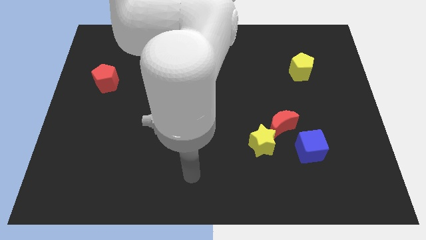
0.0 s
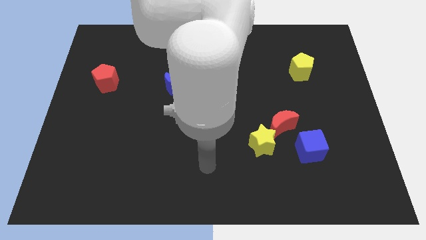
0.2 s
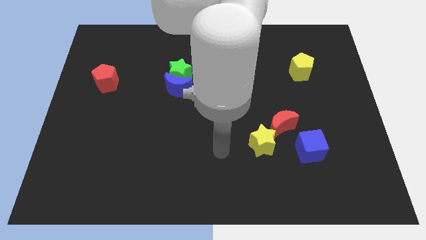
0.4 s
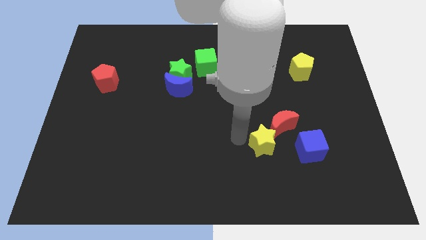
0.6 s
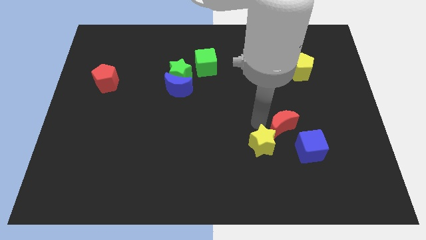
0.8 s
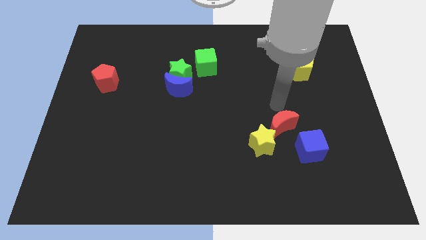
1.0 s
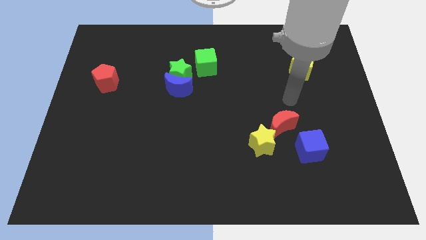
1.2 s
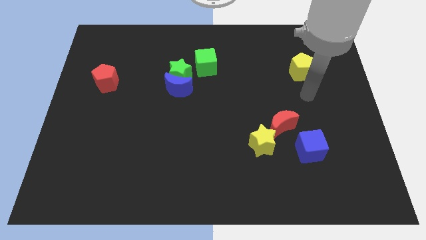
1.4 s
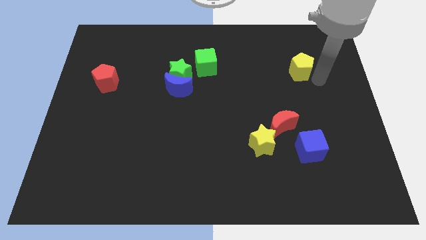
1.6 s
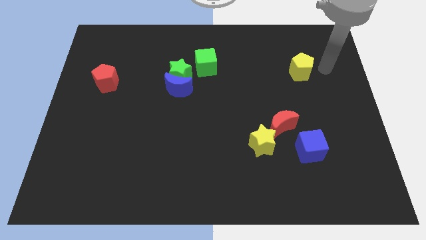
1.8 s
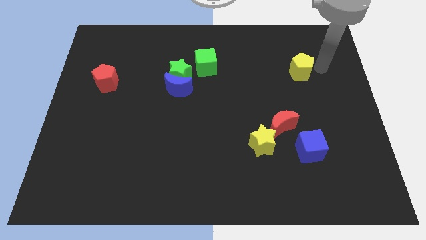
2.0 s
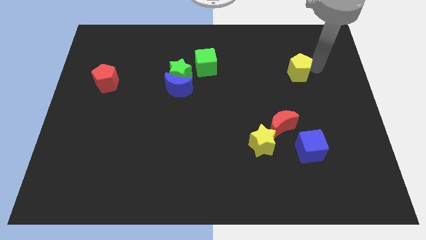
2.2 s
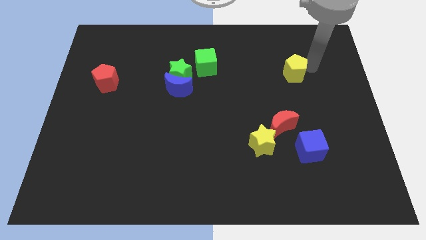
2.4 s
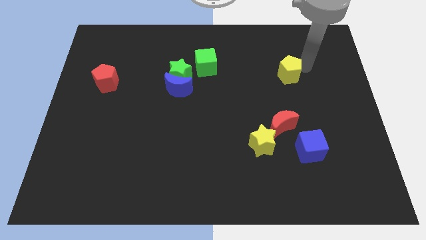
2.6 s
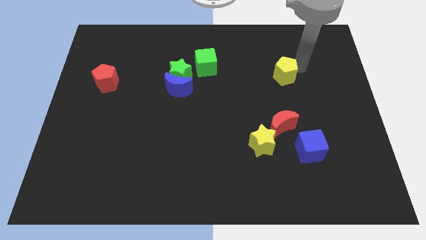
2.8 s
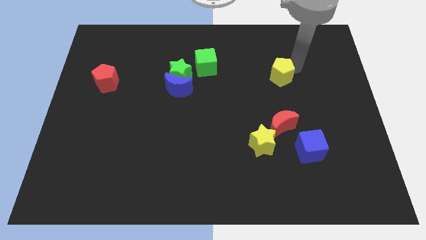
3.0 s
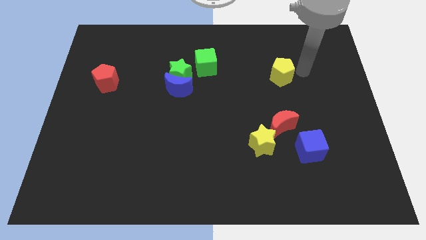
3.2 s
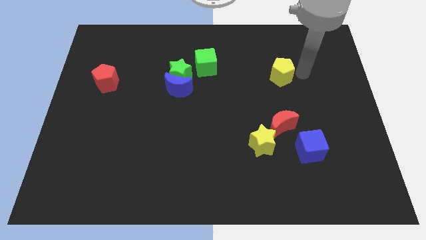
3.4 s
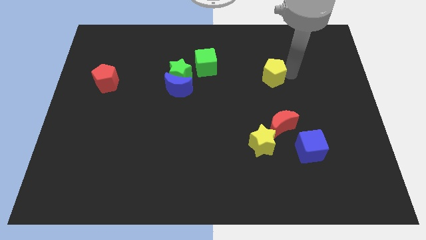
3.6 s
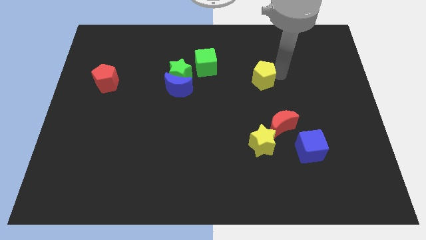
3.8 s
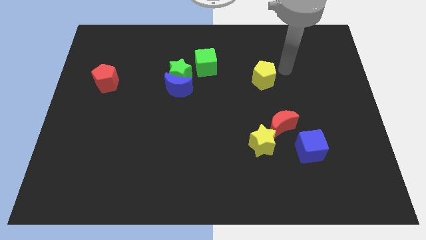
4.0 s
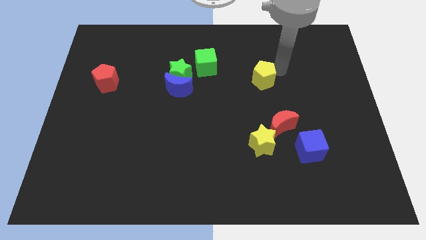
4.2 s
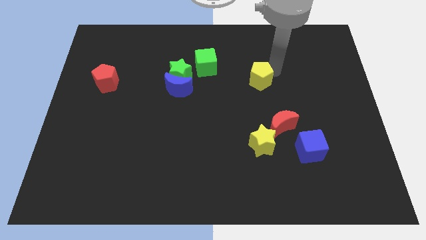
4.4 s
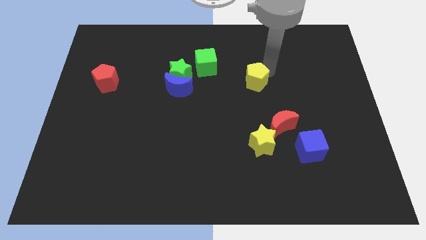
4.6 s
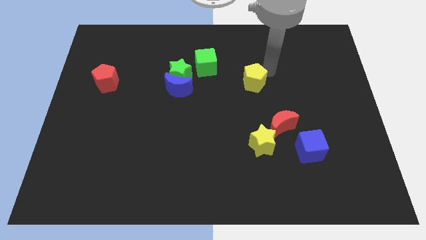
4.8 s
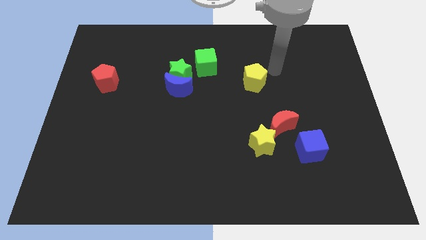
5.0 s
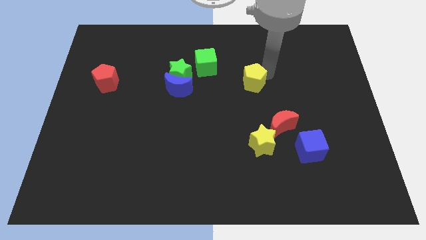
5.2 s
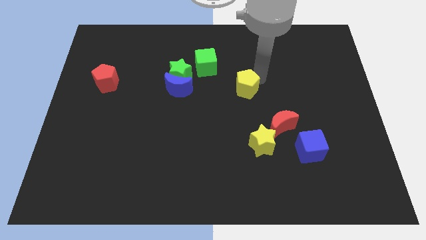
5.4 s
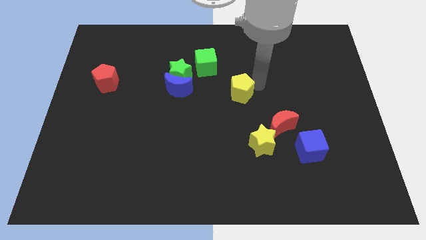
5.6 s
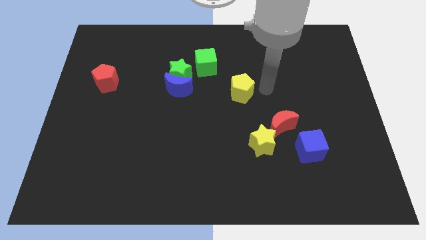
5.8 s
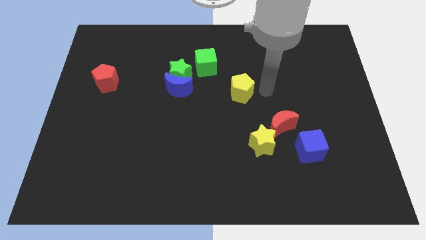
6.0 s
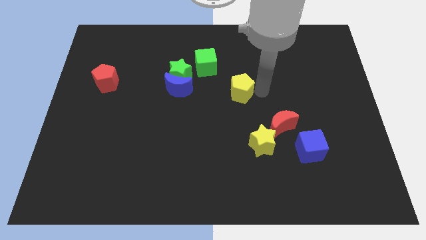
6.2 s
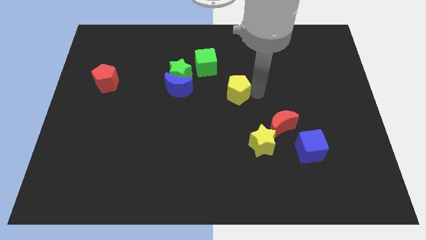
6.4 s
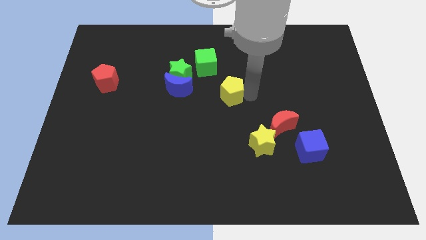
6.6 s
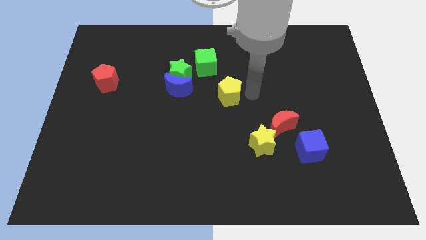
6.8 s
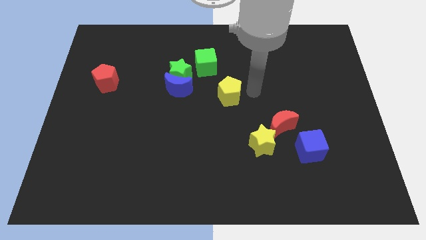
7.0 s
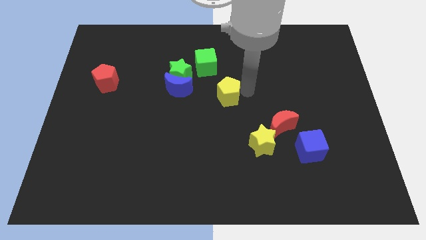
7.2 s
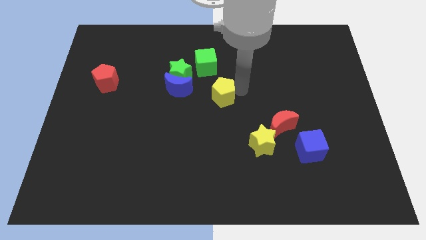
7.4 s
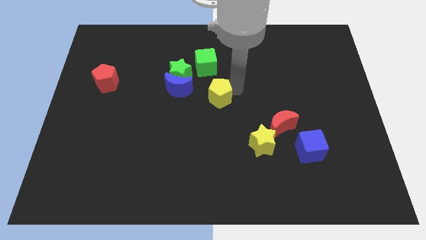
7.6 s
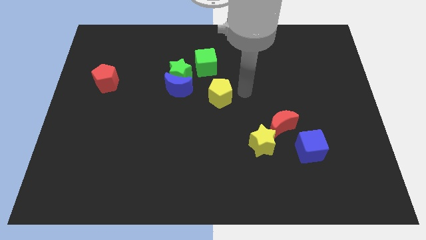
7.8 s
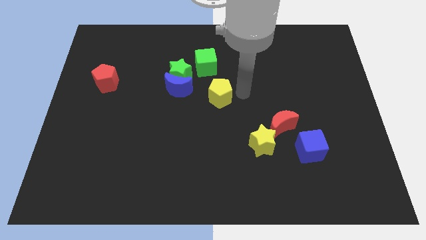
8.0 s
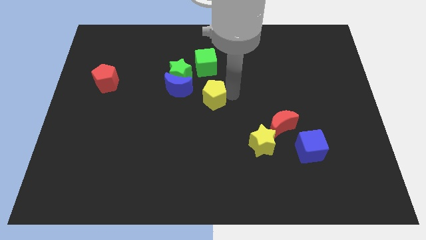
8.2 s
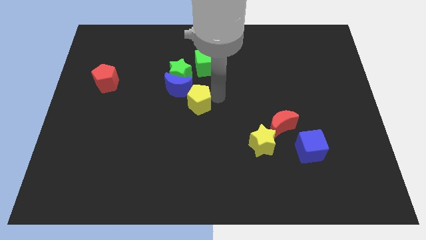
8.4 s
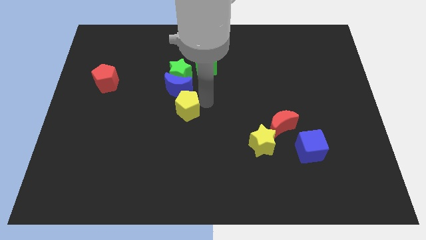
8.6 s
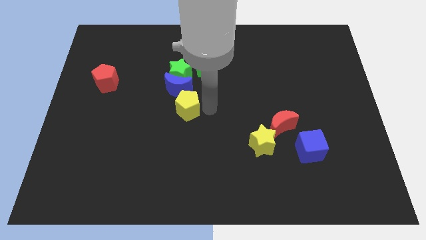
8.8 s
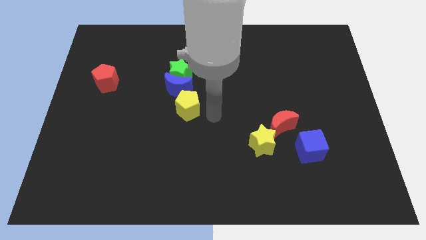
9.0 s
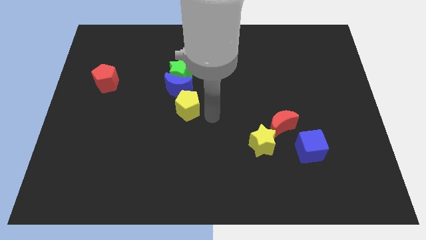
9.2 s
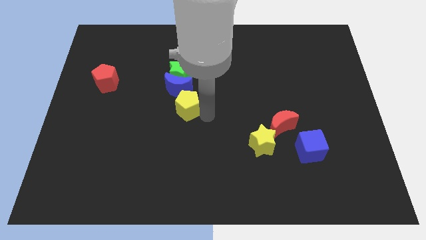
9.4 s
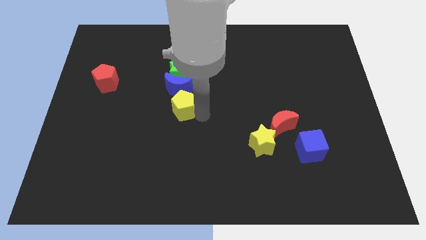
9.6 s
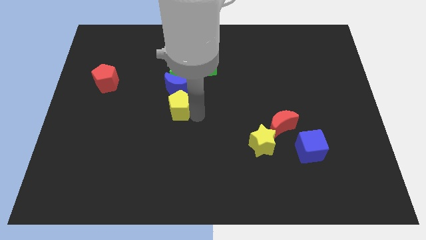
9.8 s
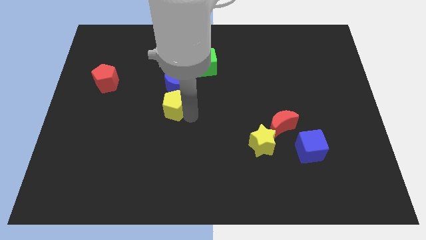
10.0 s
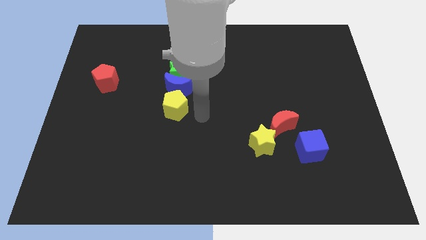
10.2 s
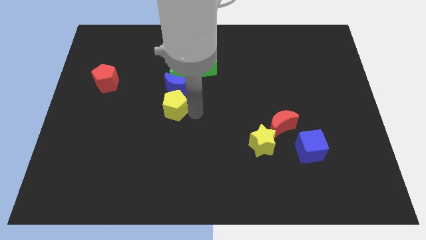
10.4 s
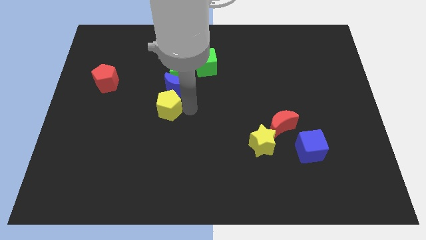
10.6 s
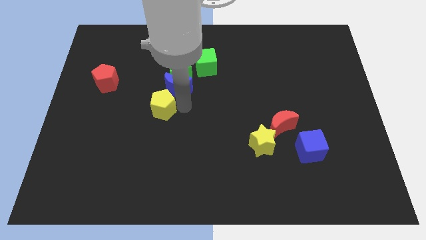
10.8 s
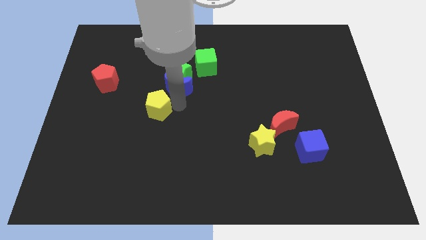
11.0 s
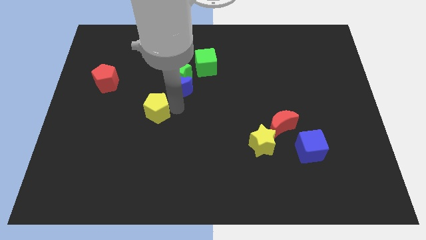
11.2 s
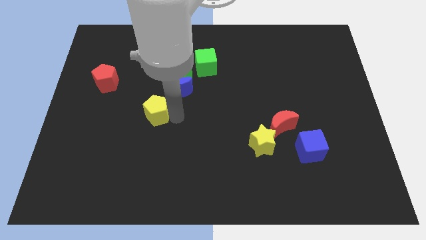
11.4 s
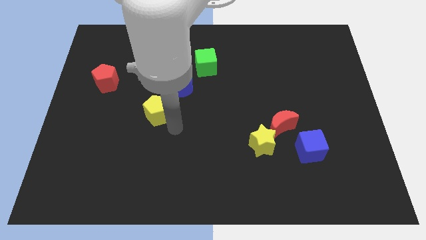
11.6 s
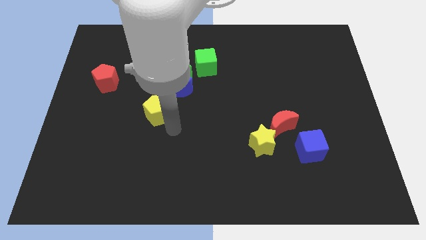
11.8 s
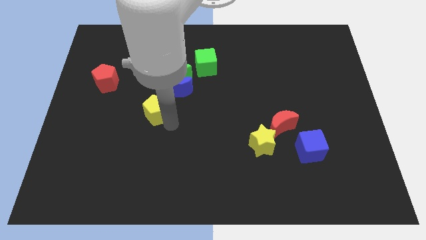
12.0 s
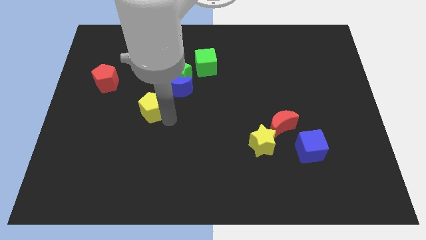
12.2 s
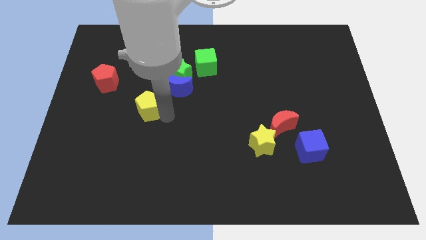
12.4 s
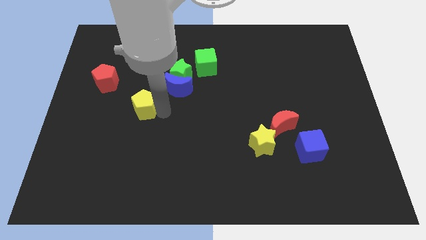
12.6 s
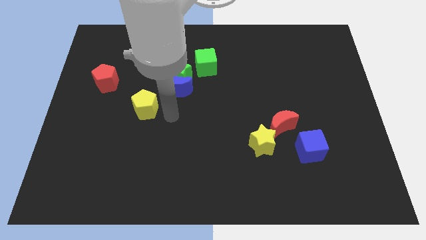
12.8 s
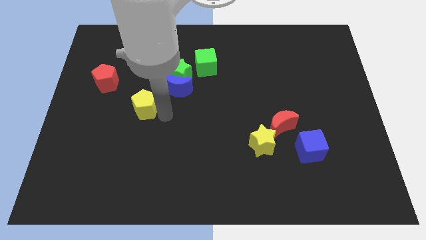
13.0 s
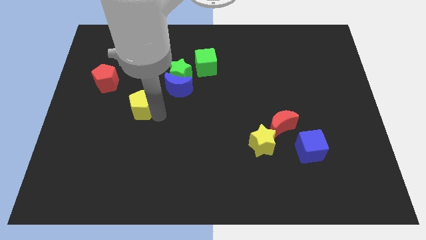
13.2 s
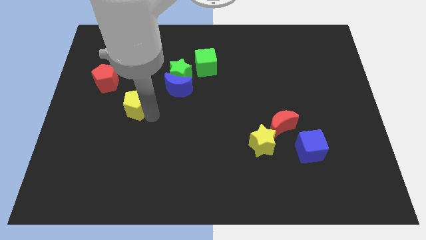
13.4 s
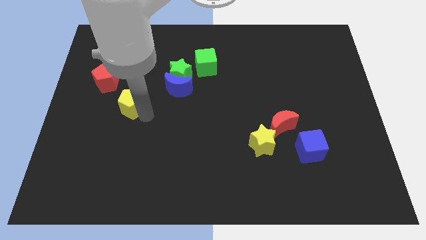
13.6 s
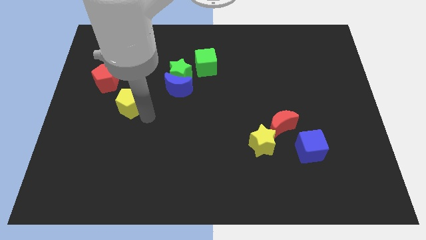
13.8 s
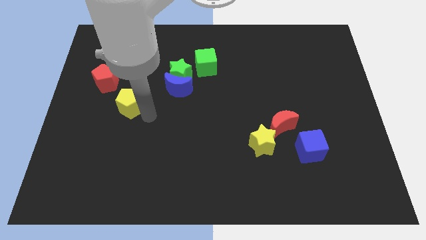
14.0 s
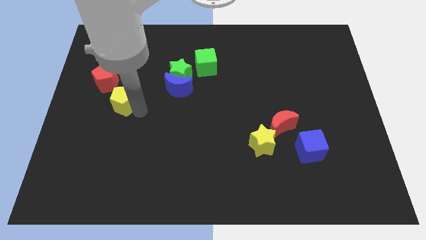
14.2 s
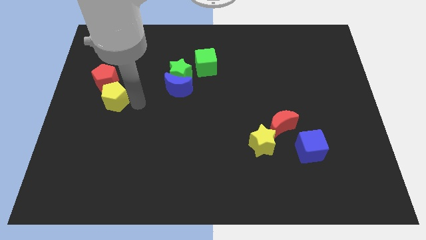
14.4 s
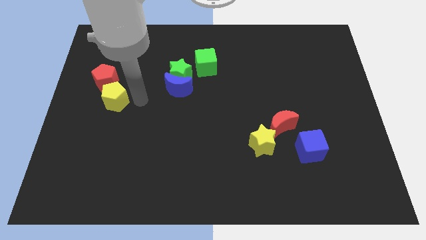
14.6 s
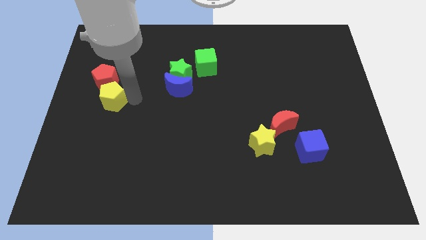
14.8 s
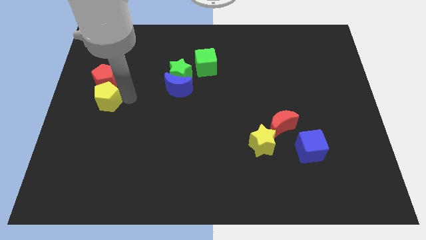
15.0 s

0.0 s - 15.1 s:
push the yellow pentagon to the left side of the board
